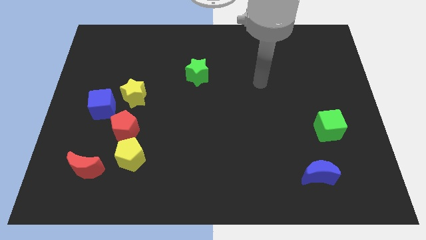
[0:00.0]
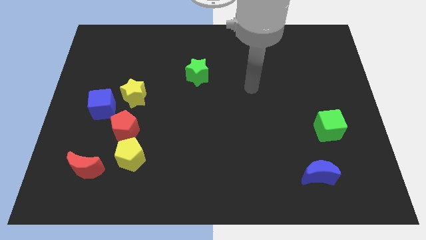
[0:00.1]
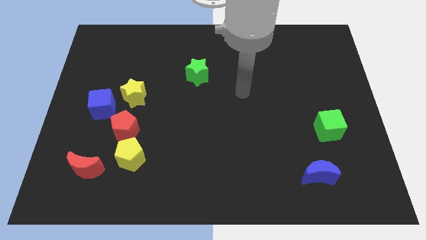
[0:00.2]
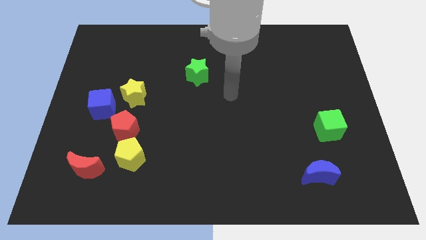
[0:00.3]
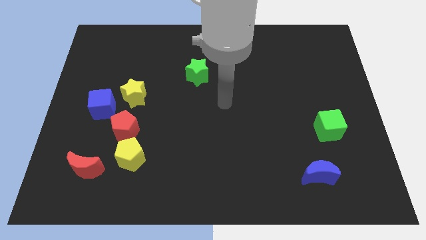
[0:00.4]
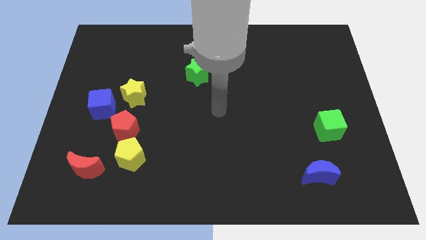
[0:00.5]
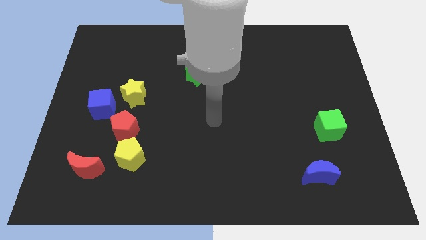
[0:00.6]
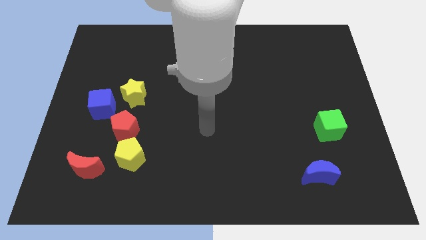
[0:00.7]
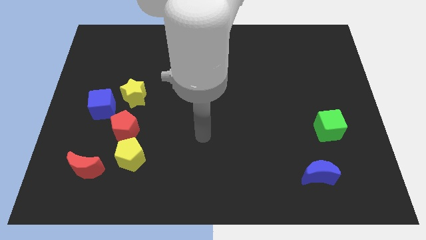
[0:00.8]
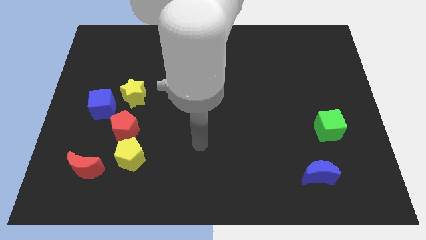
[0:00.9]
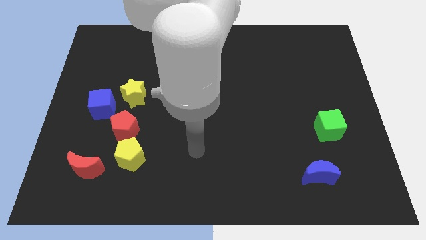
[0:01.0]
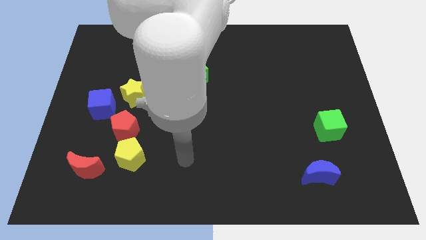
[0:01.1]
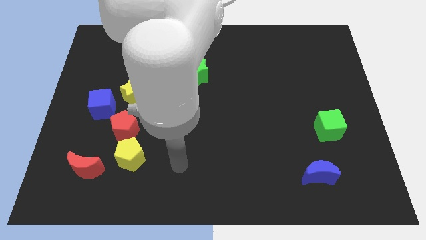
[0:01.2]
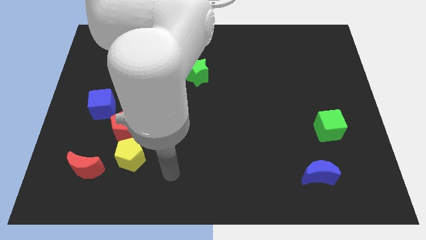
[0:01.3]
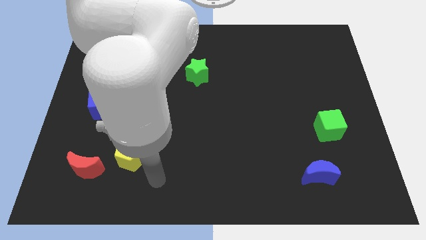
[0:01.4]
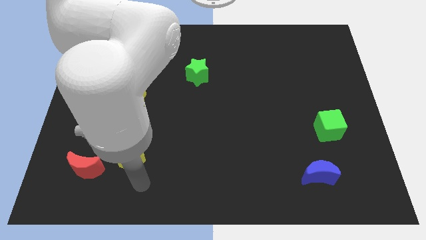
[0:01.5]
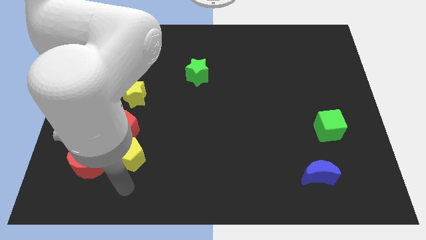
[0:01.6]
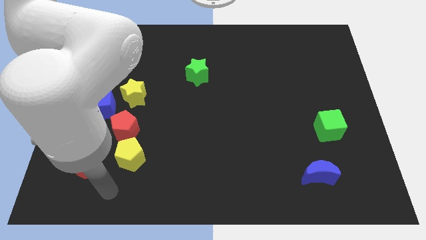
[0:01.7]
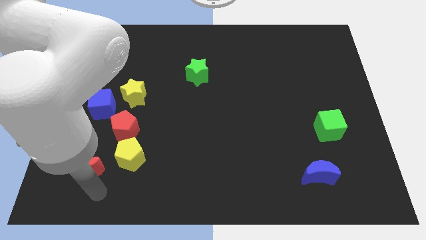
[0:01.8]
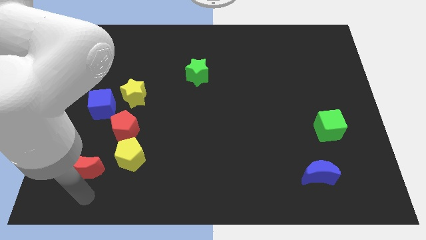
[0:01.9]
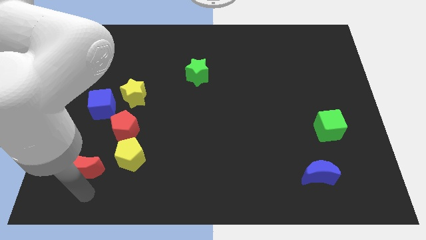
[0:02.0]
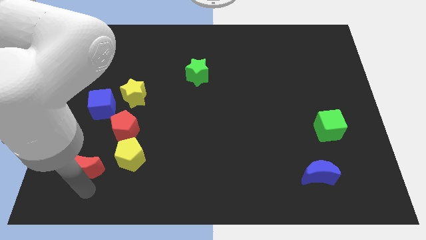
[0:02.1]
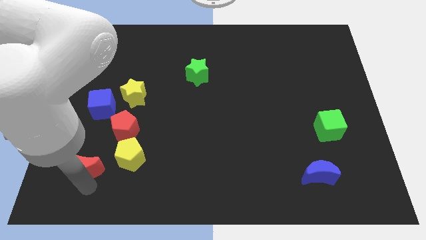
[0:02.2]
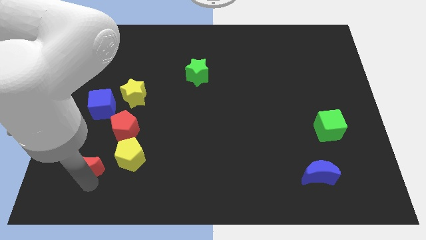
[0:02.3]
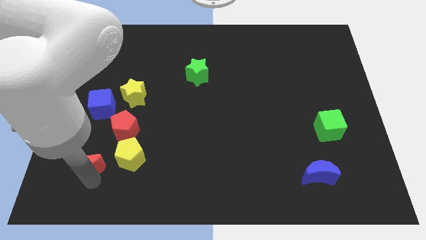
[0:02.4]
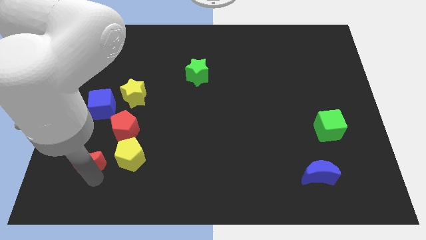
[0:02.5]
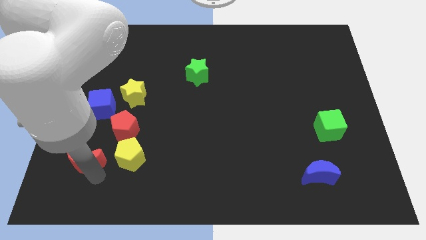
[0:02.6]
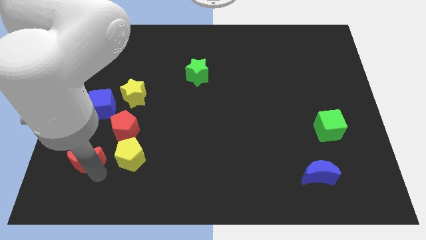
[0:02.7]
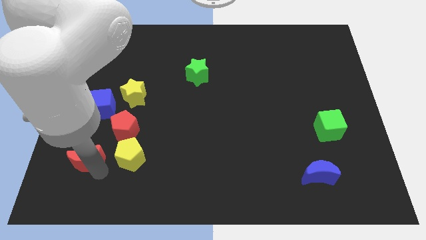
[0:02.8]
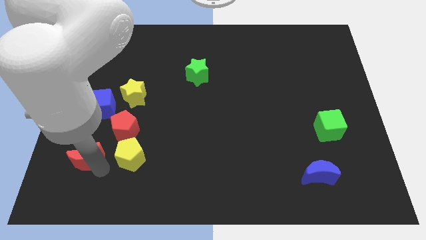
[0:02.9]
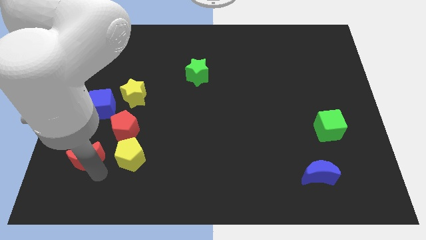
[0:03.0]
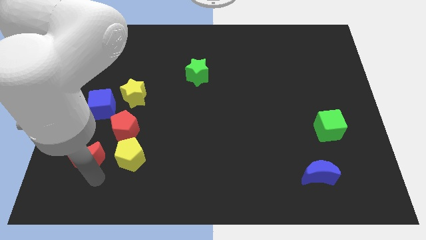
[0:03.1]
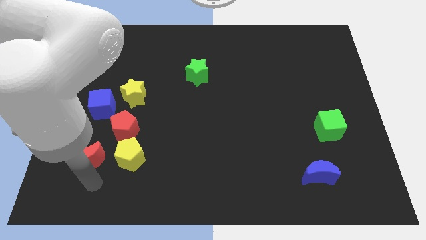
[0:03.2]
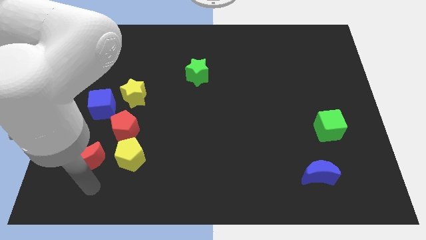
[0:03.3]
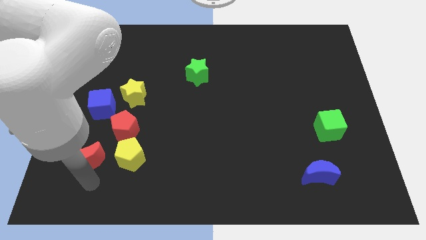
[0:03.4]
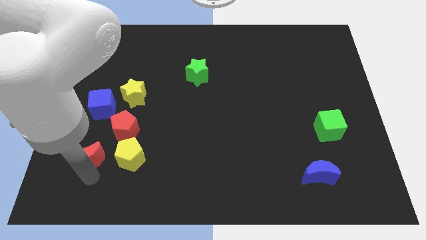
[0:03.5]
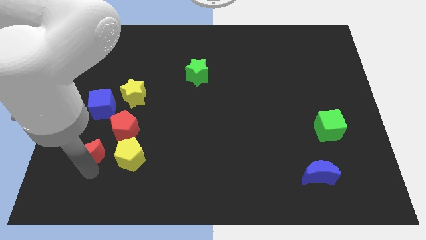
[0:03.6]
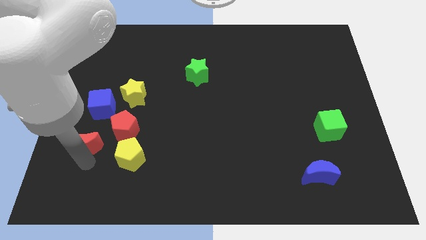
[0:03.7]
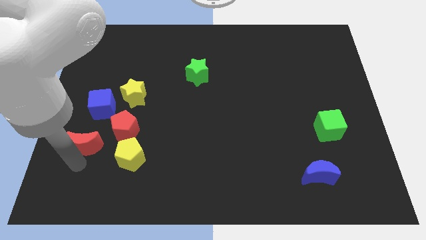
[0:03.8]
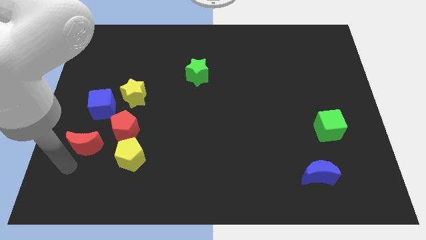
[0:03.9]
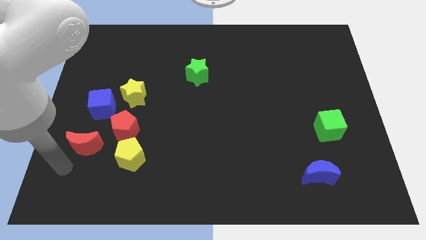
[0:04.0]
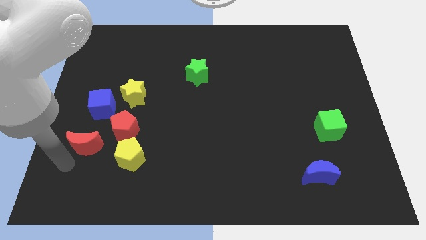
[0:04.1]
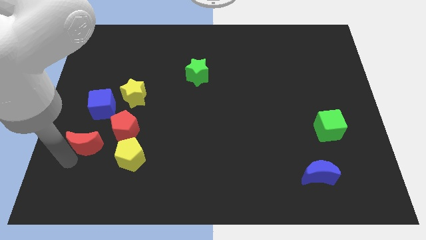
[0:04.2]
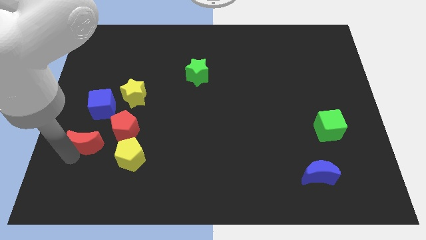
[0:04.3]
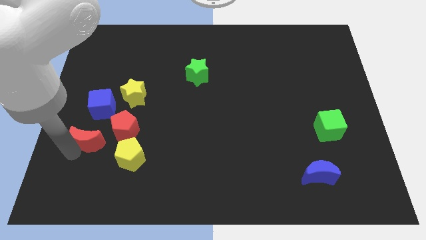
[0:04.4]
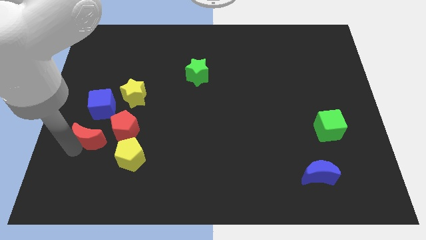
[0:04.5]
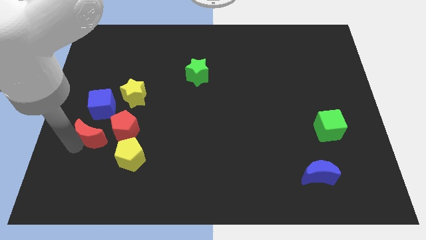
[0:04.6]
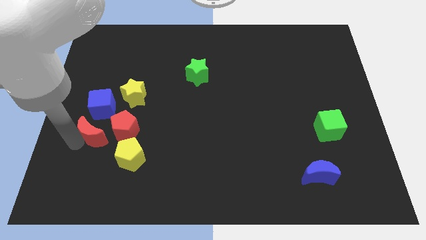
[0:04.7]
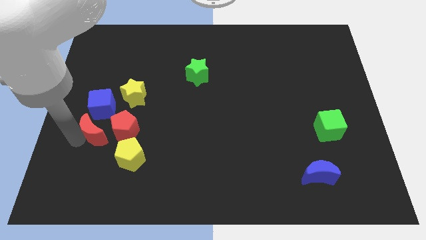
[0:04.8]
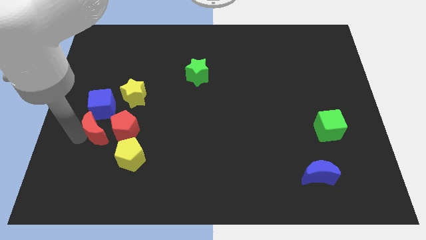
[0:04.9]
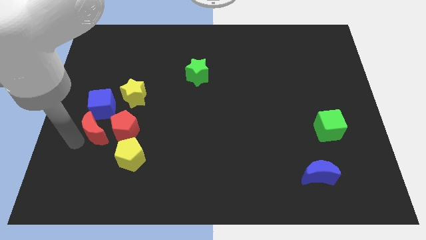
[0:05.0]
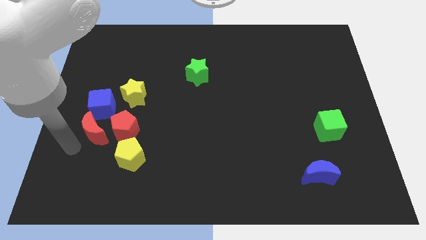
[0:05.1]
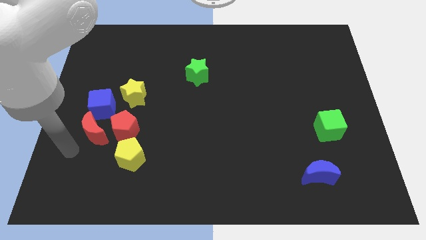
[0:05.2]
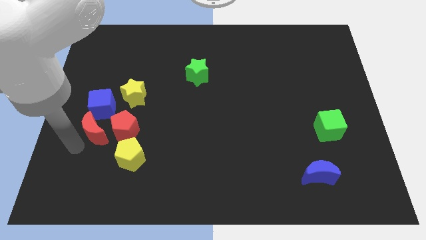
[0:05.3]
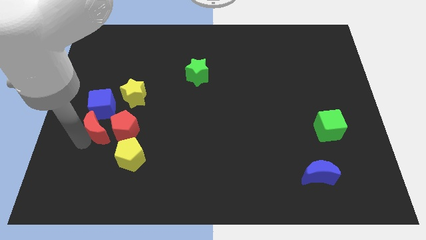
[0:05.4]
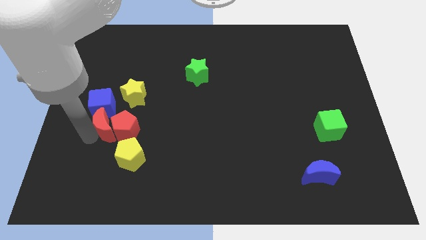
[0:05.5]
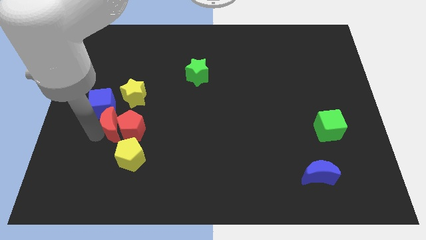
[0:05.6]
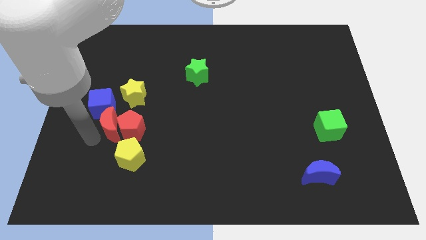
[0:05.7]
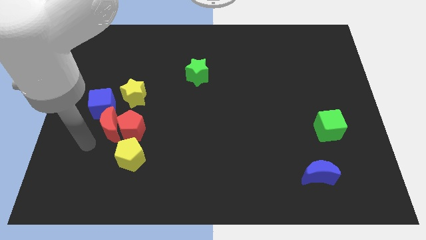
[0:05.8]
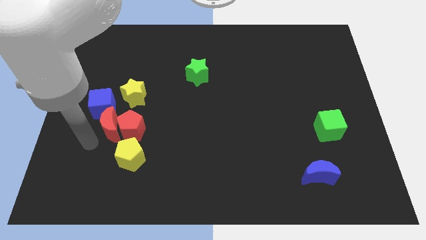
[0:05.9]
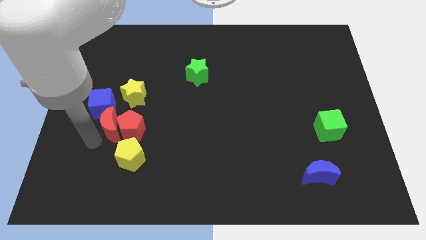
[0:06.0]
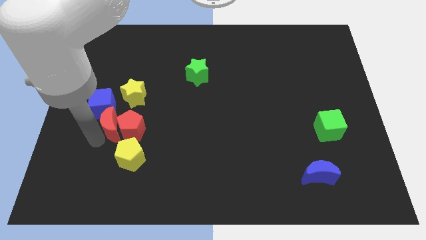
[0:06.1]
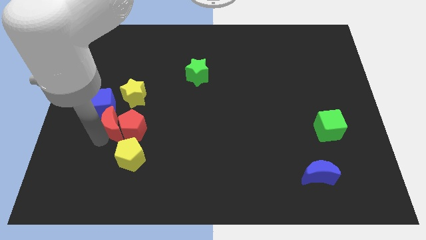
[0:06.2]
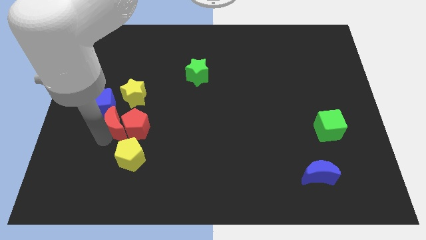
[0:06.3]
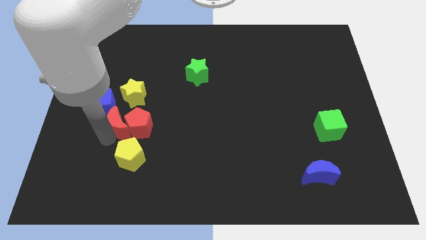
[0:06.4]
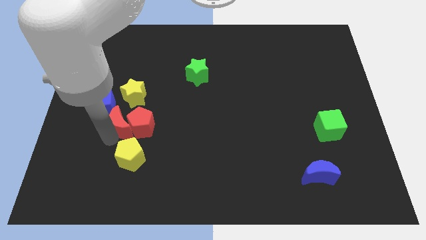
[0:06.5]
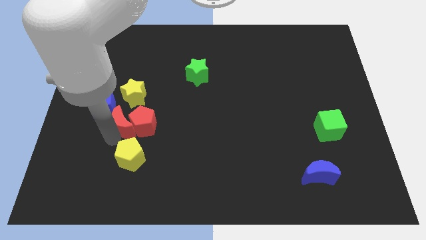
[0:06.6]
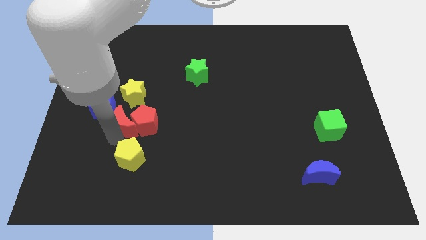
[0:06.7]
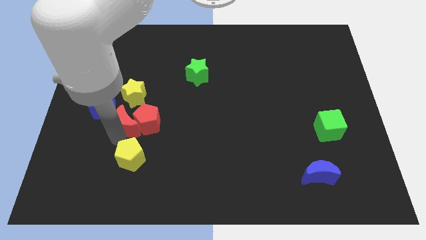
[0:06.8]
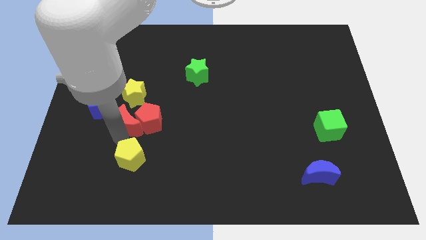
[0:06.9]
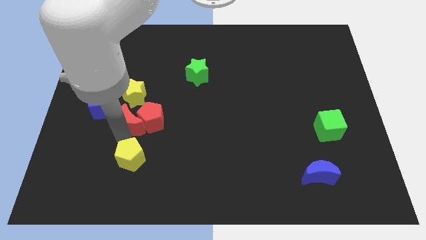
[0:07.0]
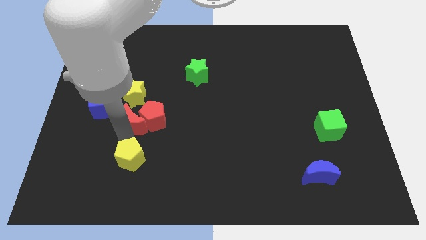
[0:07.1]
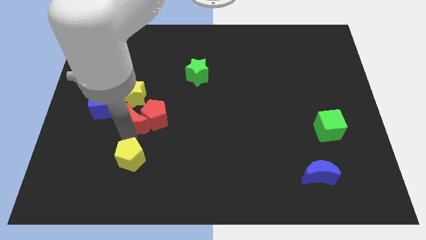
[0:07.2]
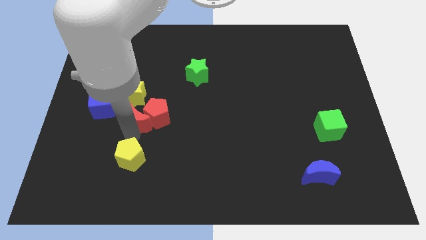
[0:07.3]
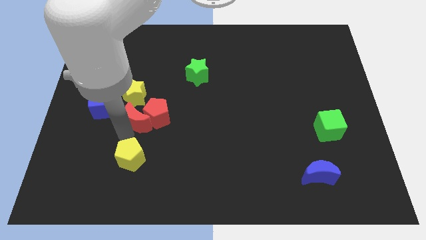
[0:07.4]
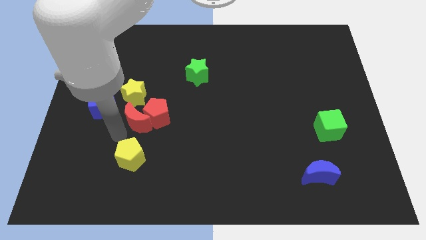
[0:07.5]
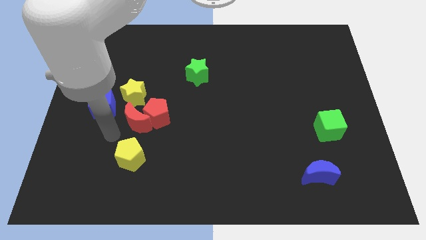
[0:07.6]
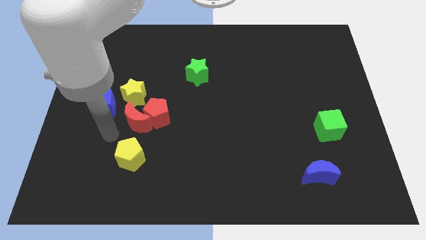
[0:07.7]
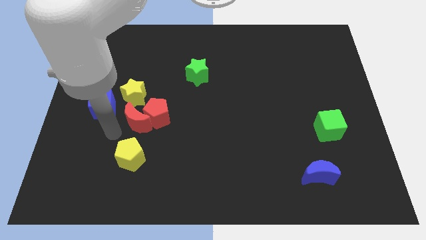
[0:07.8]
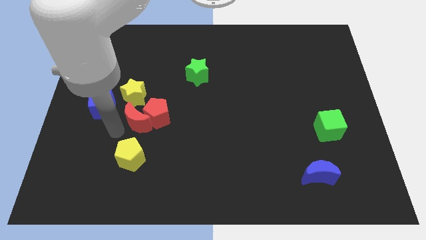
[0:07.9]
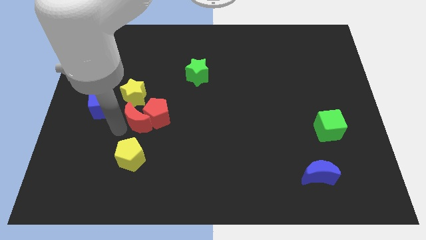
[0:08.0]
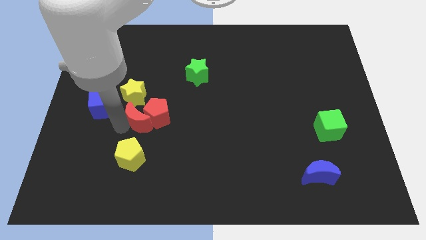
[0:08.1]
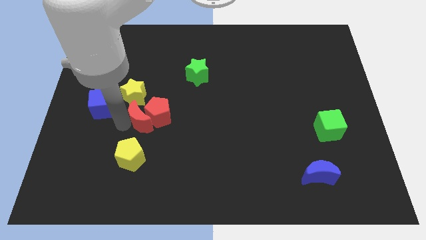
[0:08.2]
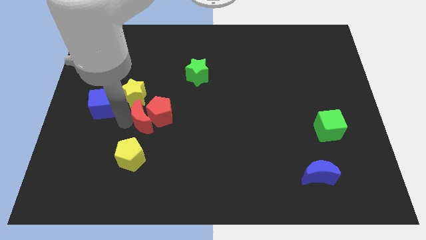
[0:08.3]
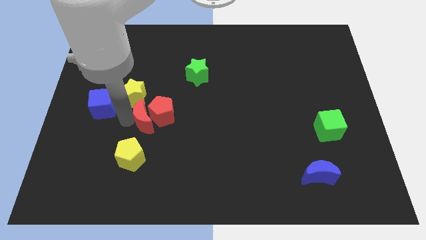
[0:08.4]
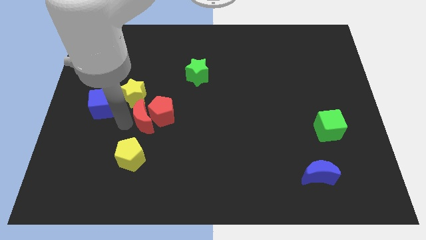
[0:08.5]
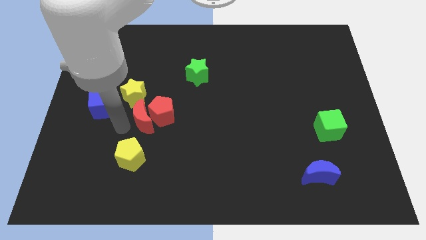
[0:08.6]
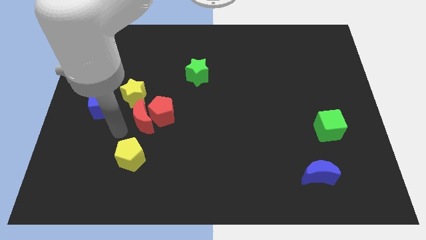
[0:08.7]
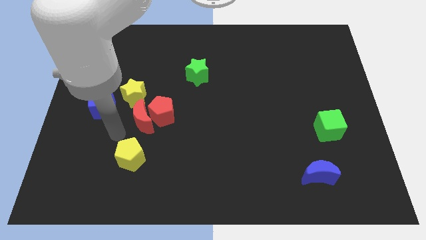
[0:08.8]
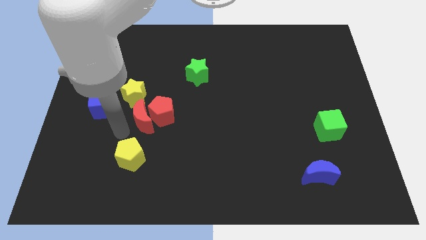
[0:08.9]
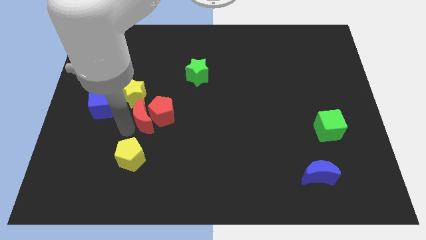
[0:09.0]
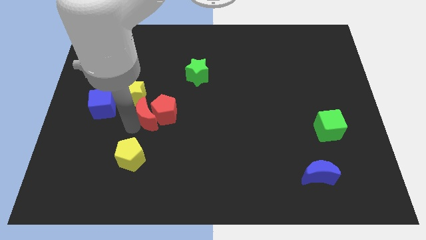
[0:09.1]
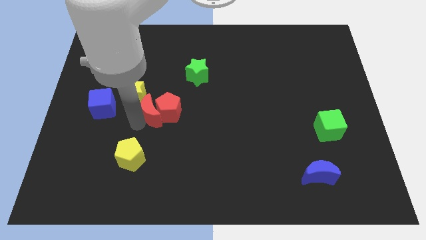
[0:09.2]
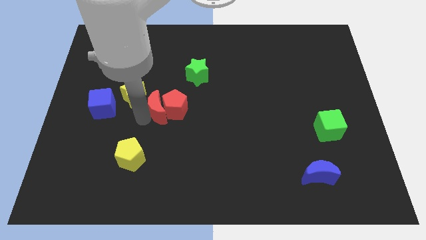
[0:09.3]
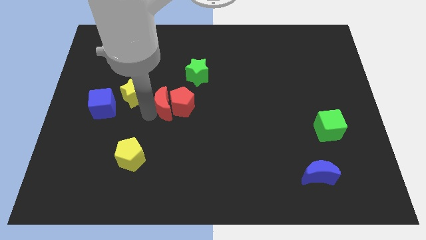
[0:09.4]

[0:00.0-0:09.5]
slide the red moon to the middle
